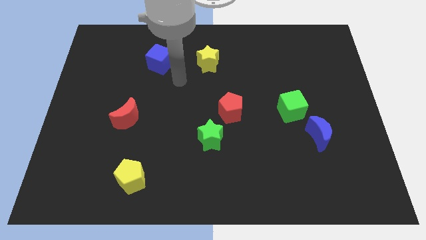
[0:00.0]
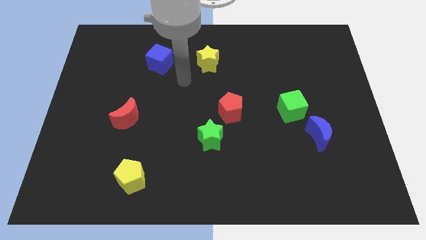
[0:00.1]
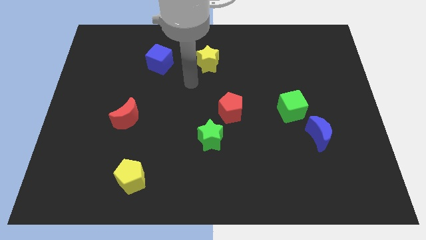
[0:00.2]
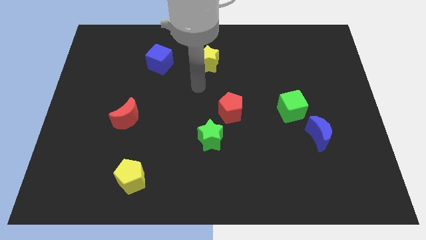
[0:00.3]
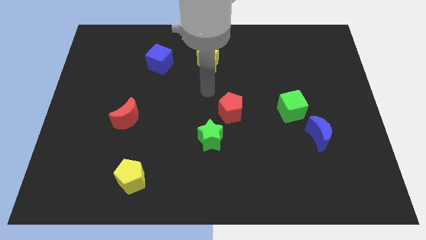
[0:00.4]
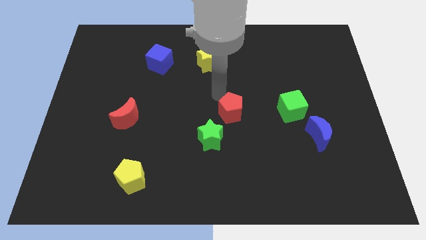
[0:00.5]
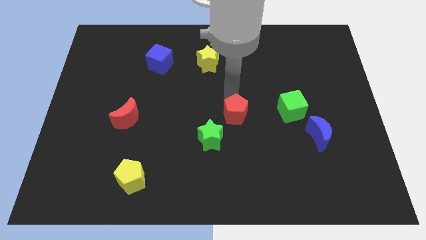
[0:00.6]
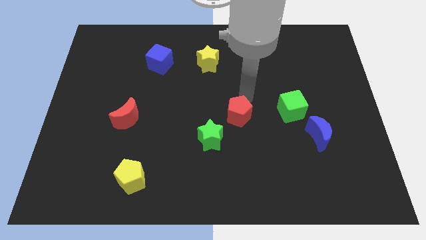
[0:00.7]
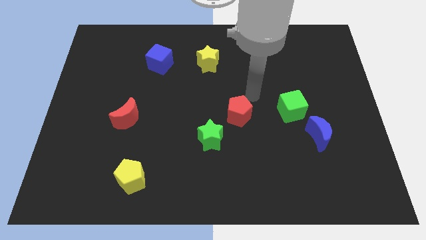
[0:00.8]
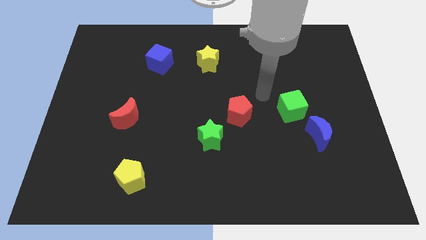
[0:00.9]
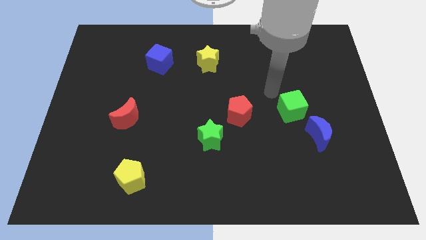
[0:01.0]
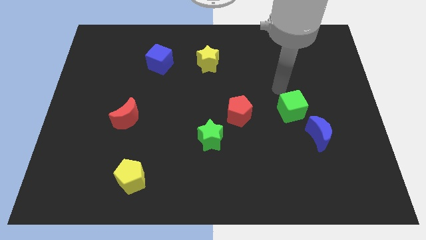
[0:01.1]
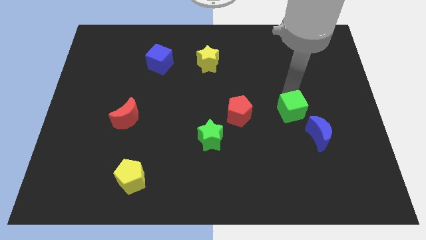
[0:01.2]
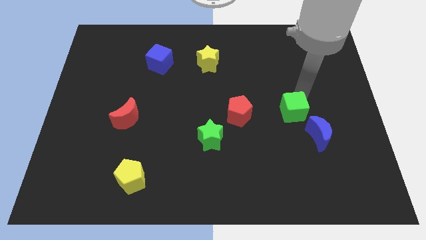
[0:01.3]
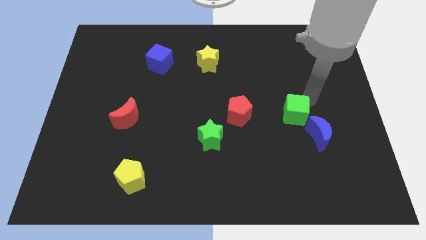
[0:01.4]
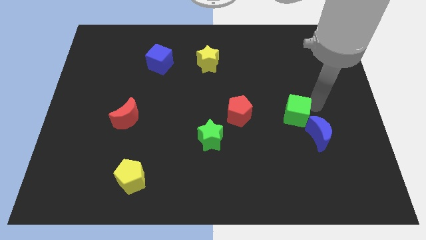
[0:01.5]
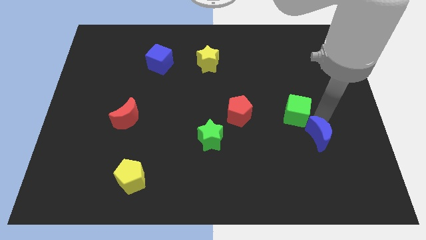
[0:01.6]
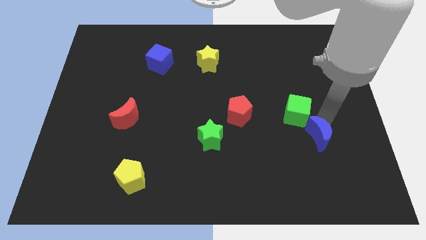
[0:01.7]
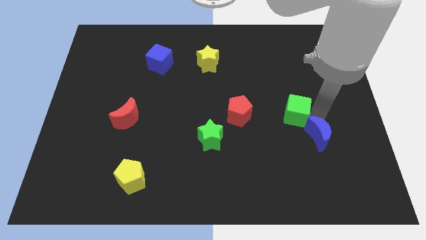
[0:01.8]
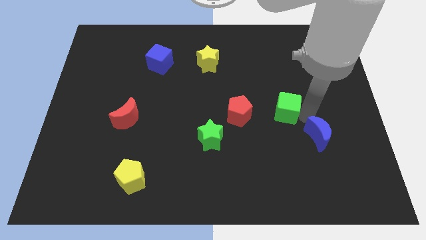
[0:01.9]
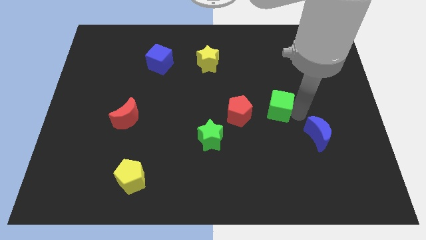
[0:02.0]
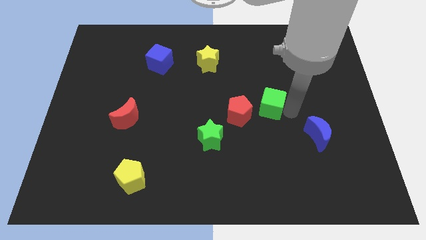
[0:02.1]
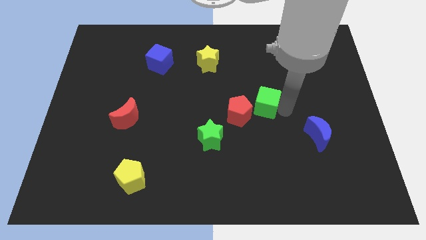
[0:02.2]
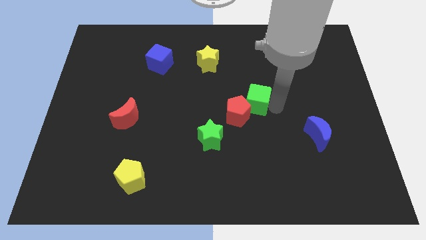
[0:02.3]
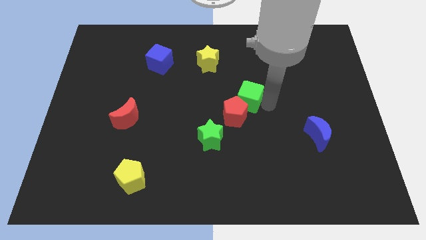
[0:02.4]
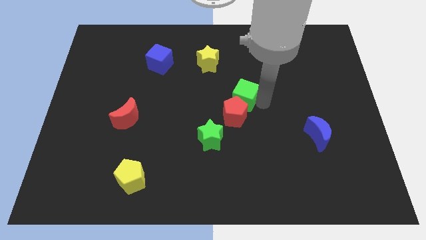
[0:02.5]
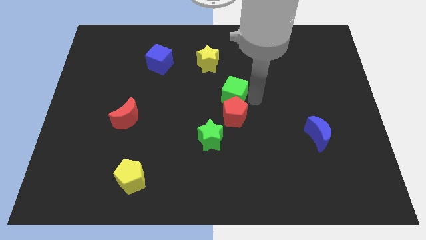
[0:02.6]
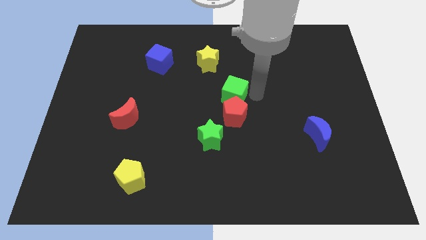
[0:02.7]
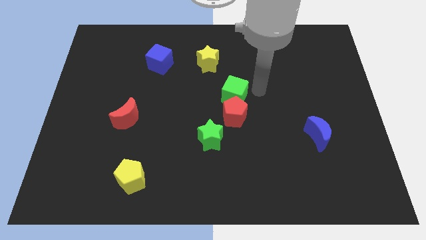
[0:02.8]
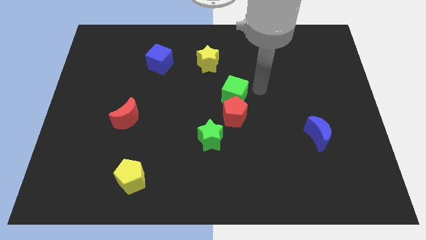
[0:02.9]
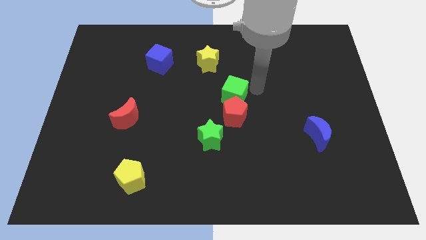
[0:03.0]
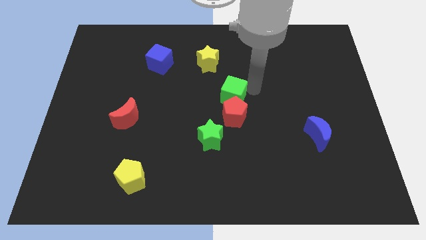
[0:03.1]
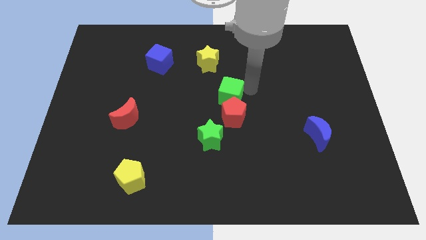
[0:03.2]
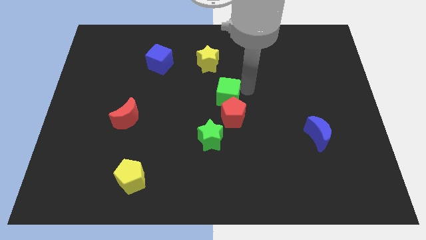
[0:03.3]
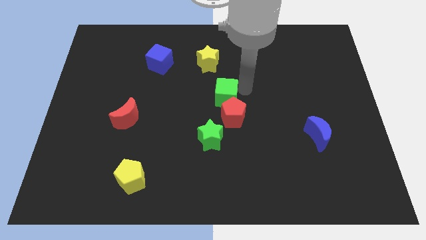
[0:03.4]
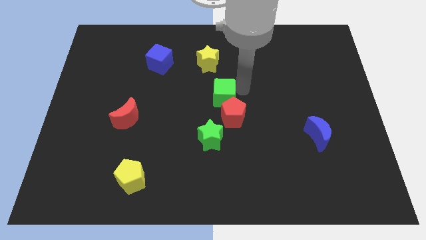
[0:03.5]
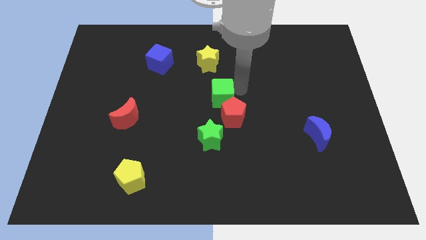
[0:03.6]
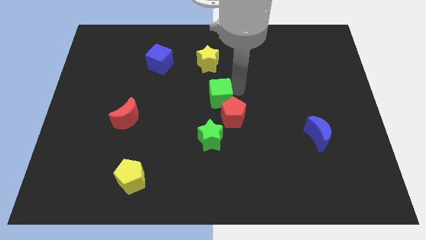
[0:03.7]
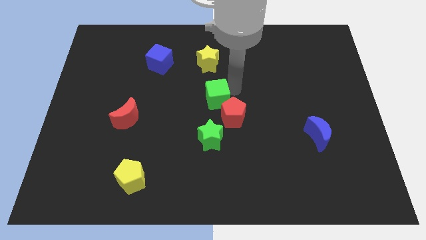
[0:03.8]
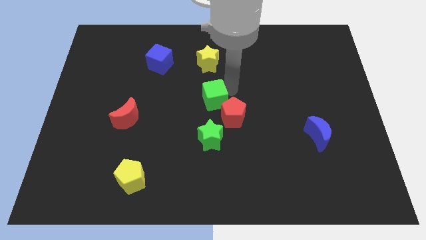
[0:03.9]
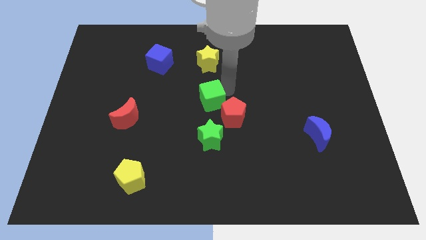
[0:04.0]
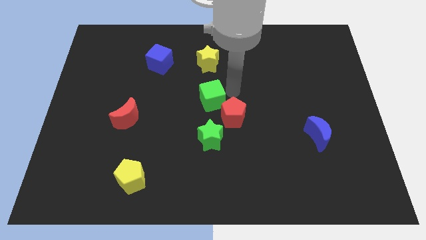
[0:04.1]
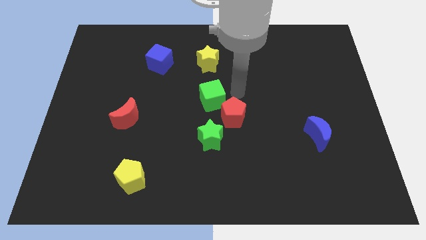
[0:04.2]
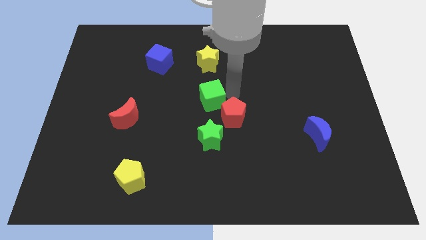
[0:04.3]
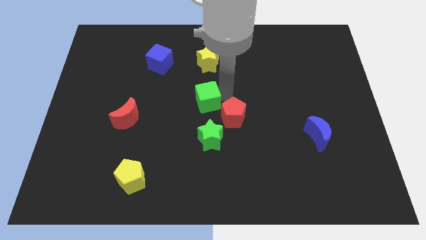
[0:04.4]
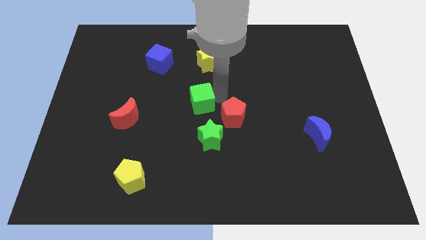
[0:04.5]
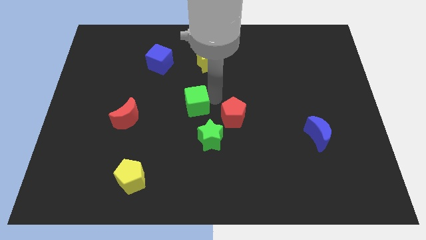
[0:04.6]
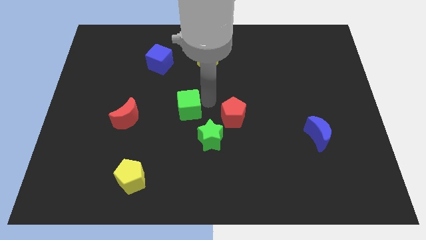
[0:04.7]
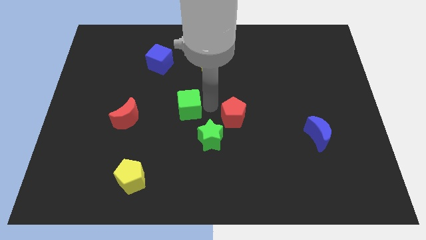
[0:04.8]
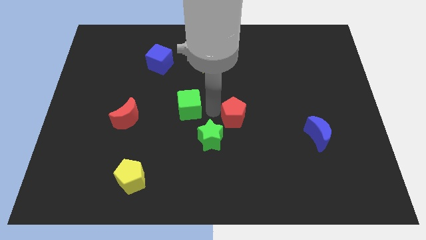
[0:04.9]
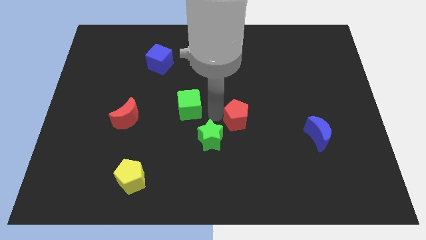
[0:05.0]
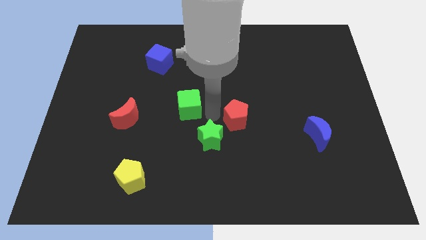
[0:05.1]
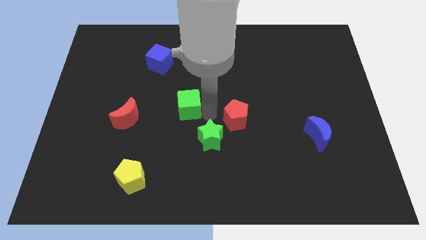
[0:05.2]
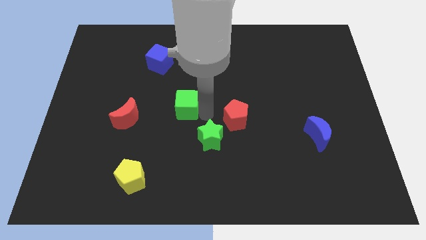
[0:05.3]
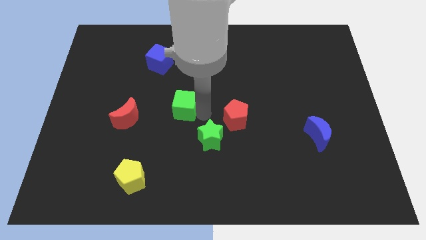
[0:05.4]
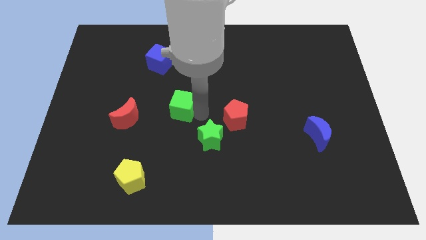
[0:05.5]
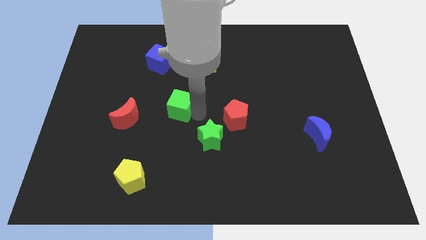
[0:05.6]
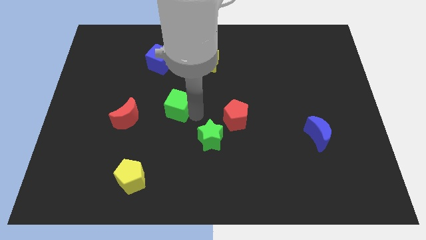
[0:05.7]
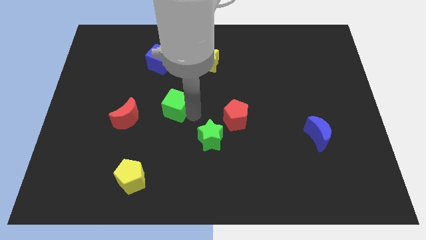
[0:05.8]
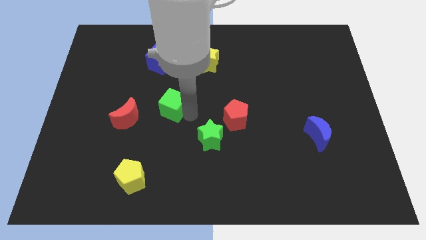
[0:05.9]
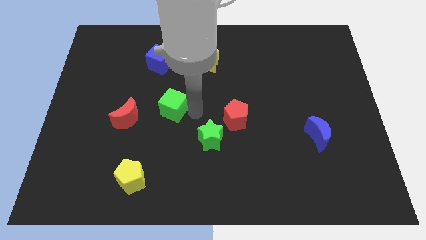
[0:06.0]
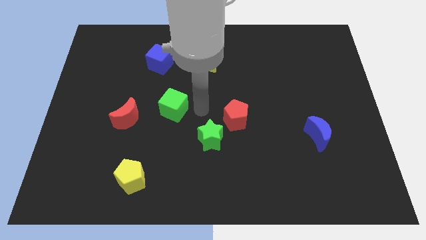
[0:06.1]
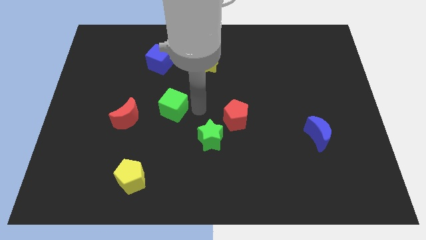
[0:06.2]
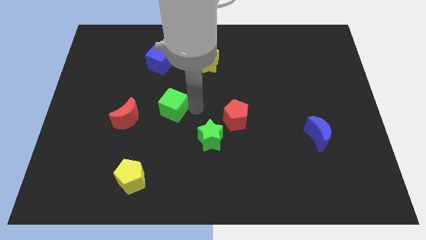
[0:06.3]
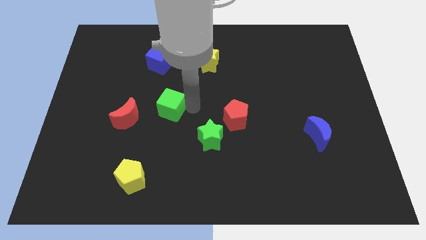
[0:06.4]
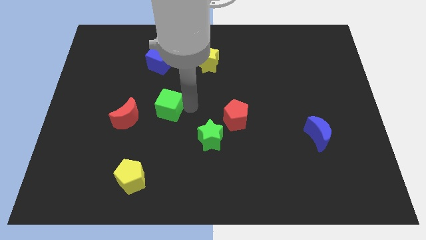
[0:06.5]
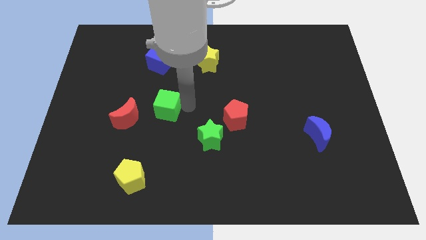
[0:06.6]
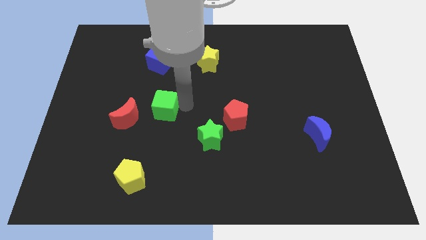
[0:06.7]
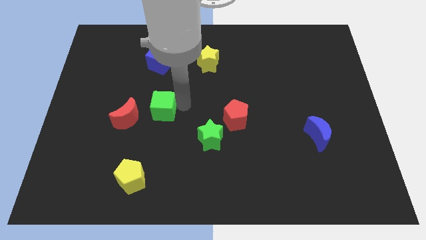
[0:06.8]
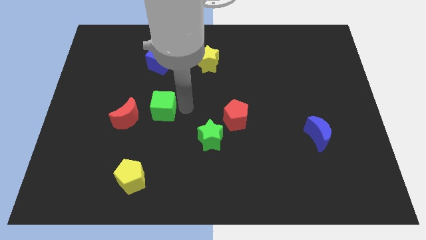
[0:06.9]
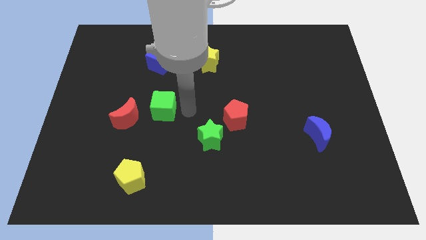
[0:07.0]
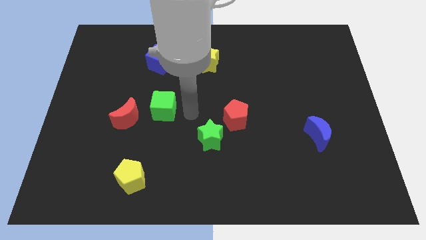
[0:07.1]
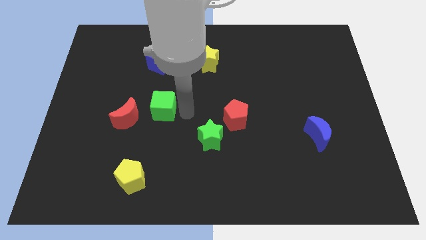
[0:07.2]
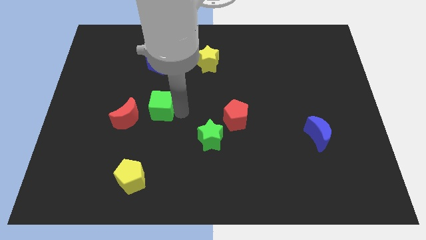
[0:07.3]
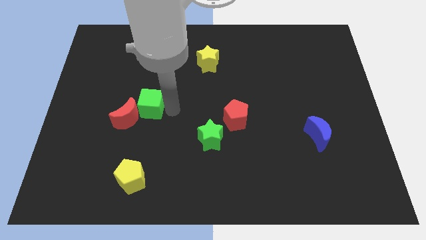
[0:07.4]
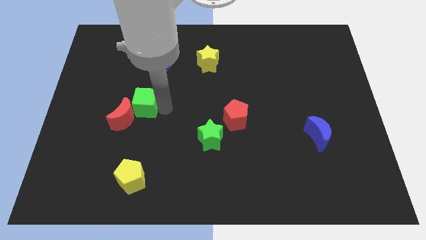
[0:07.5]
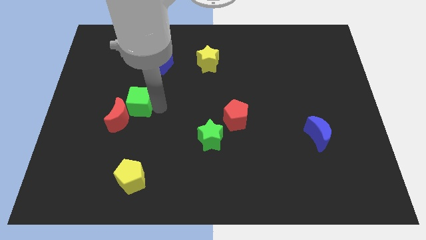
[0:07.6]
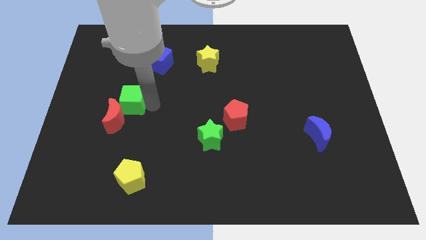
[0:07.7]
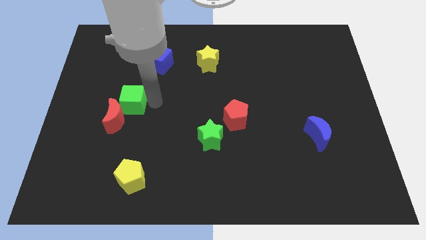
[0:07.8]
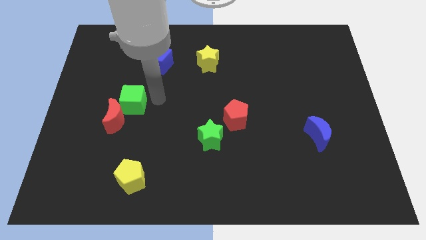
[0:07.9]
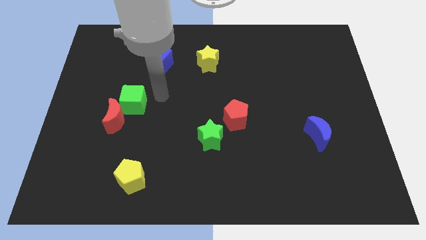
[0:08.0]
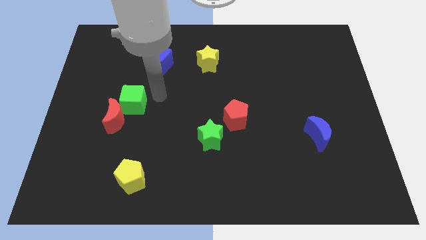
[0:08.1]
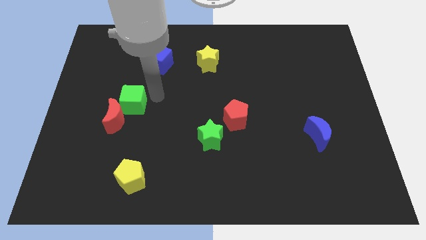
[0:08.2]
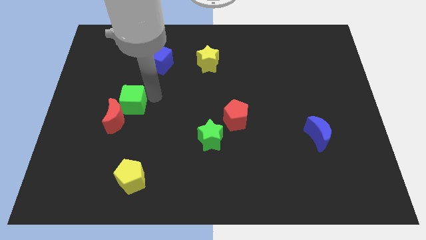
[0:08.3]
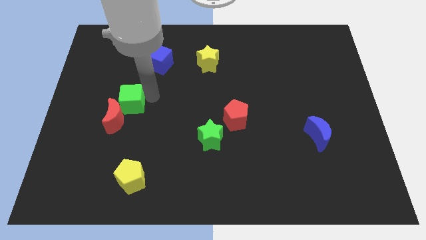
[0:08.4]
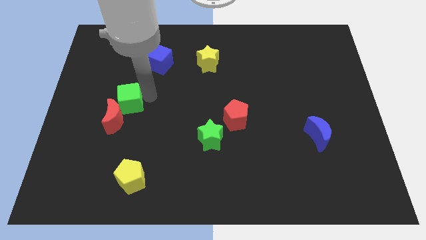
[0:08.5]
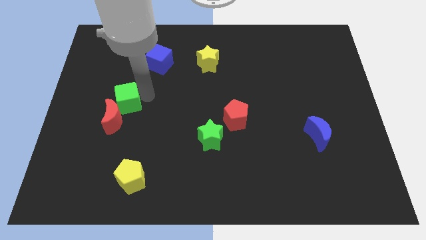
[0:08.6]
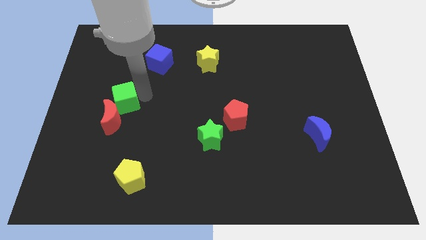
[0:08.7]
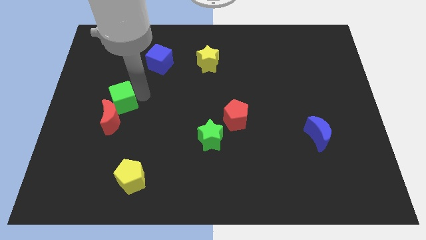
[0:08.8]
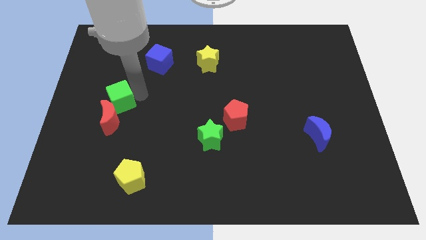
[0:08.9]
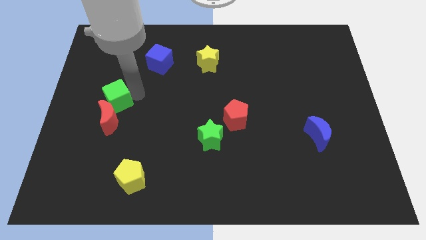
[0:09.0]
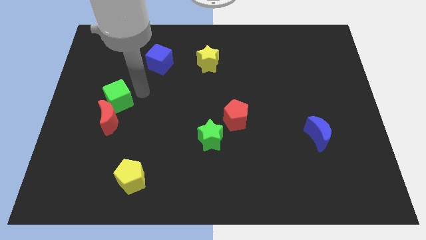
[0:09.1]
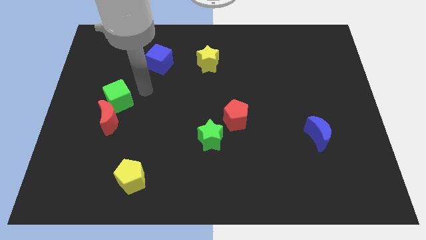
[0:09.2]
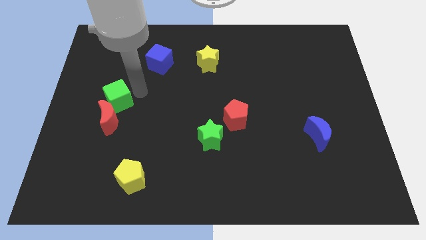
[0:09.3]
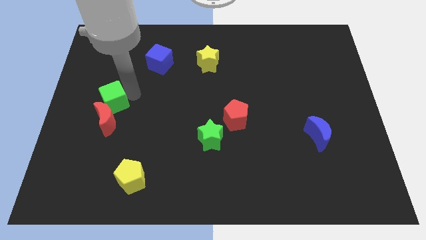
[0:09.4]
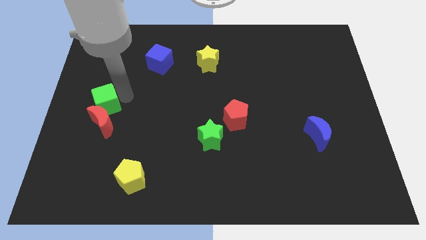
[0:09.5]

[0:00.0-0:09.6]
put the green cube to the left side
